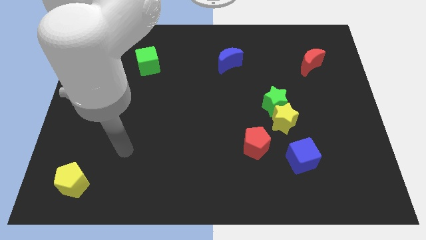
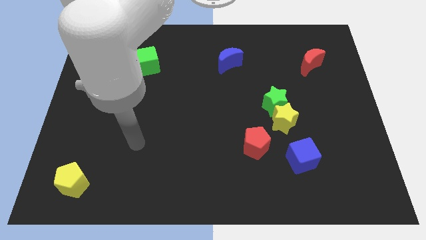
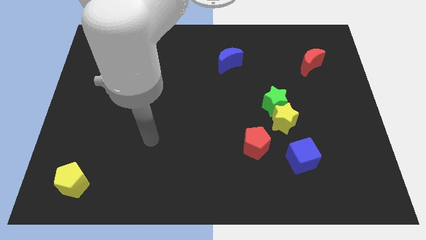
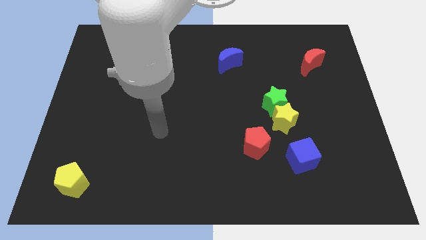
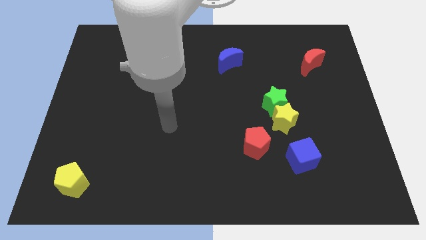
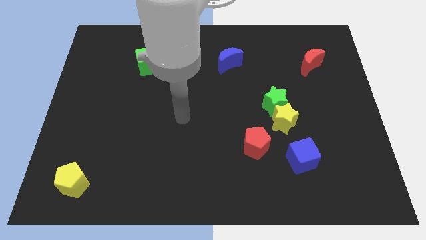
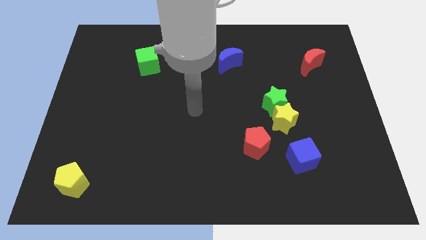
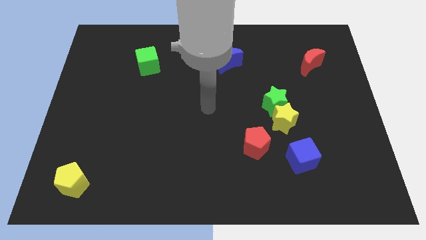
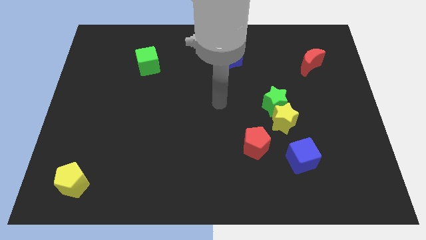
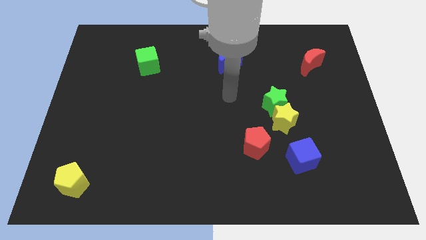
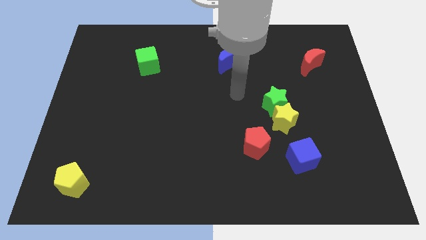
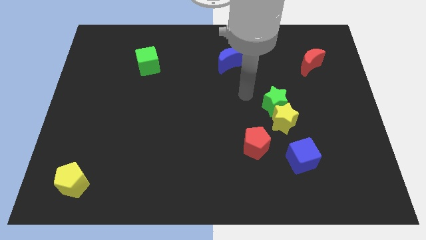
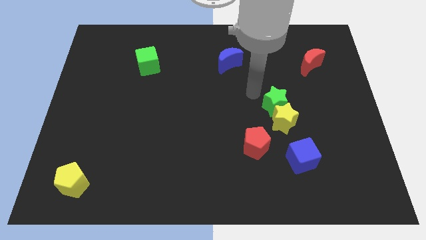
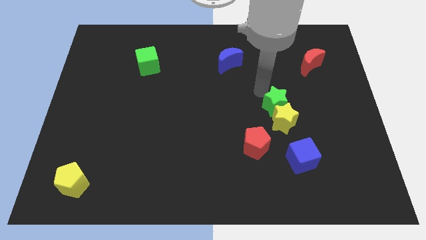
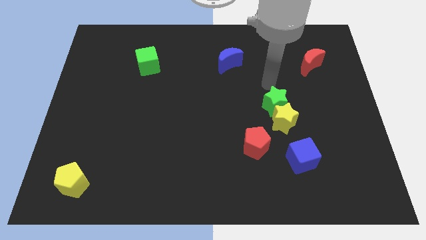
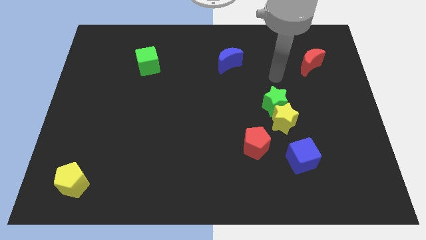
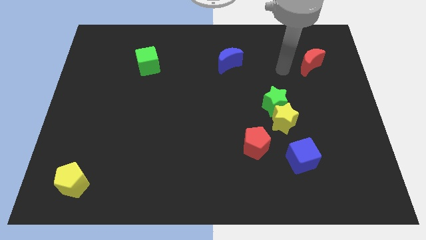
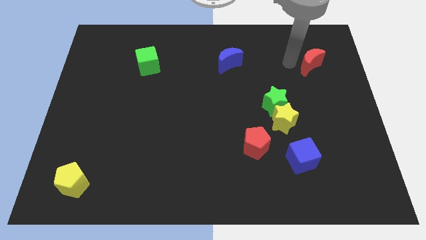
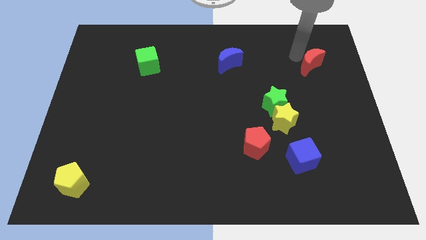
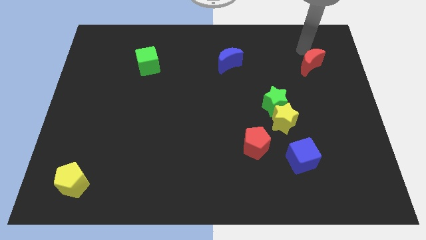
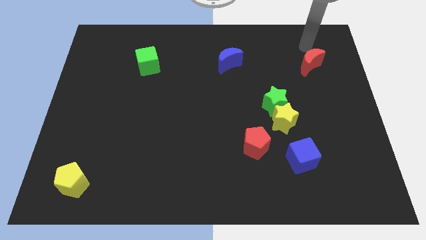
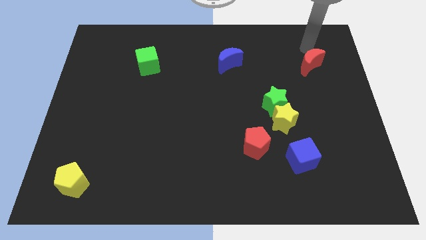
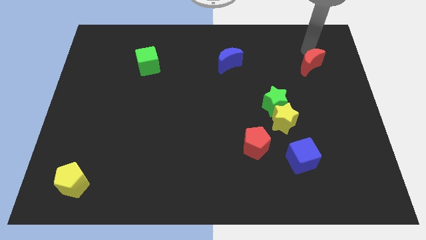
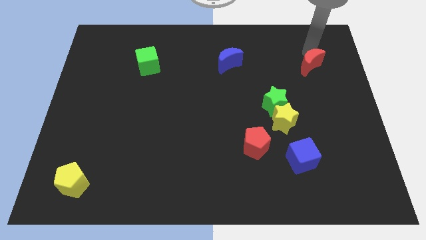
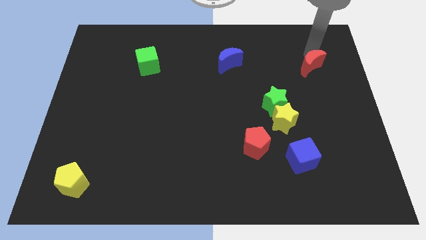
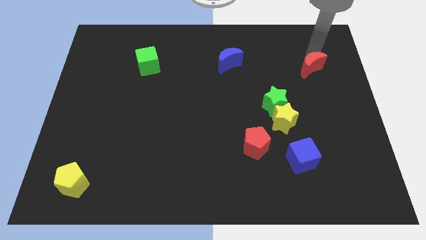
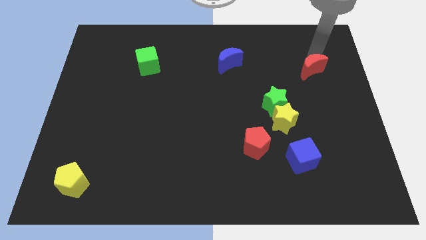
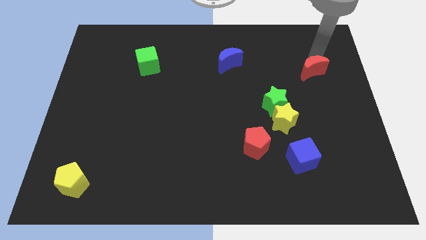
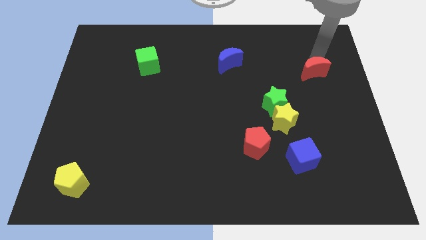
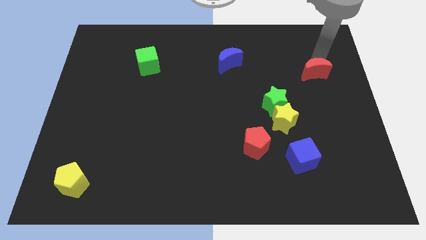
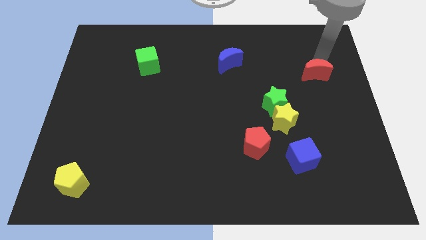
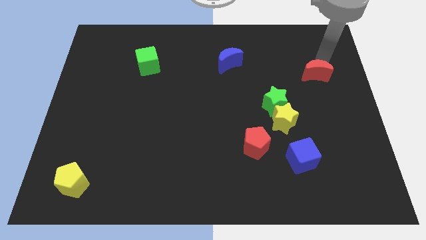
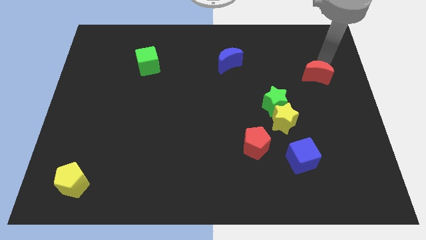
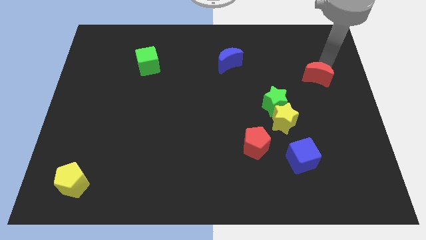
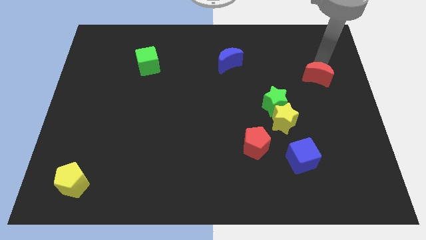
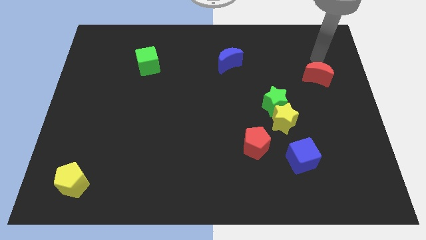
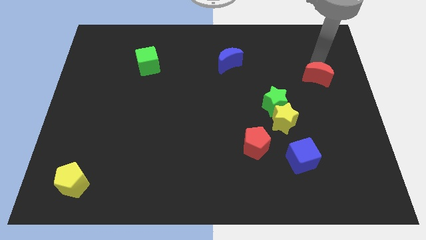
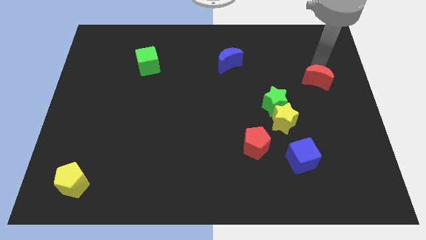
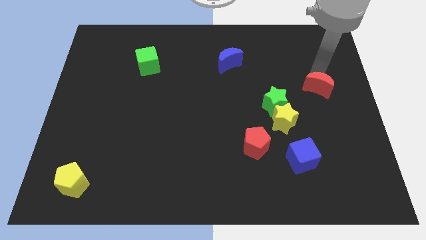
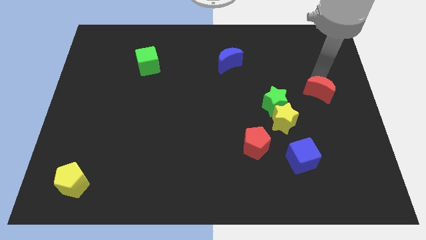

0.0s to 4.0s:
push the red moon to the right of the green star

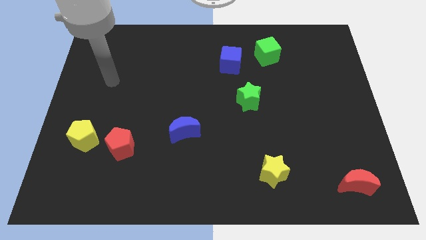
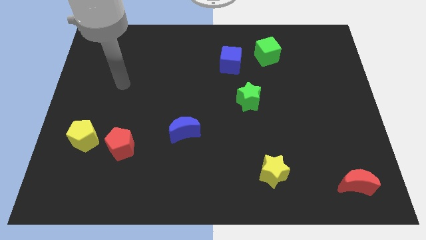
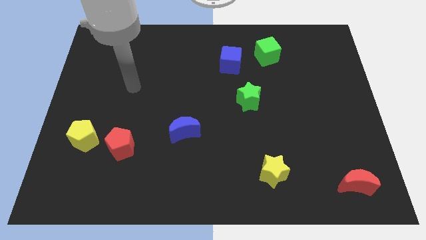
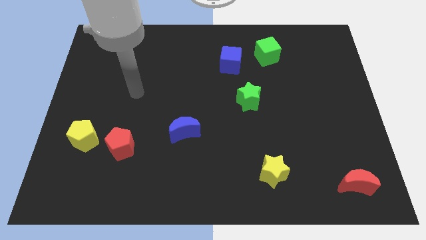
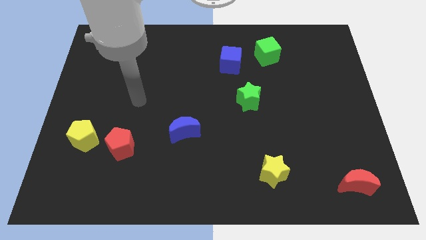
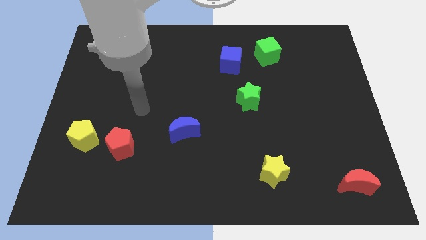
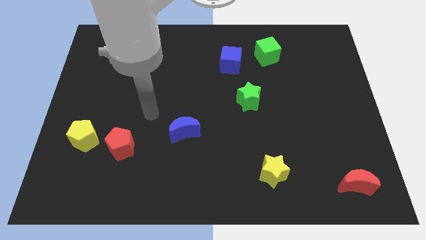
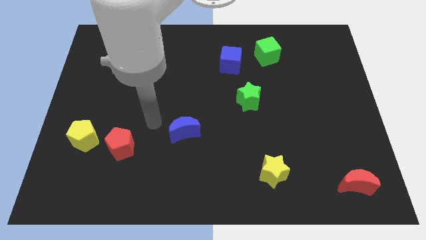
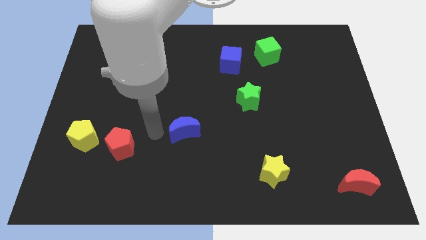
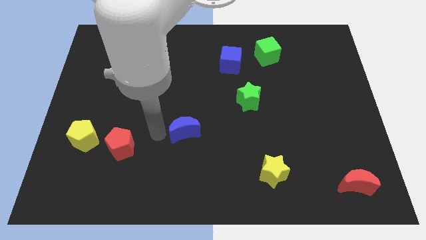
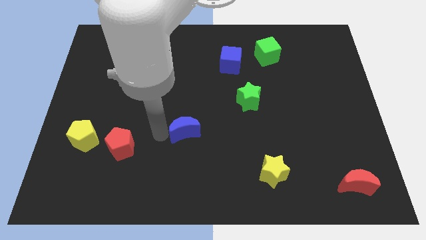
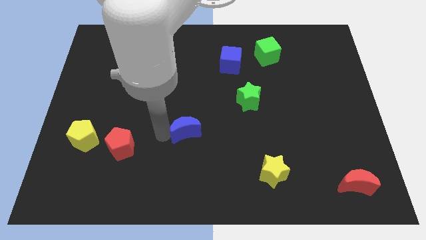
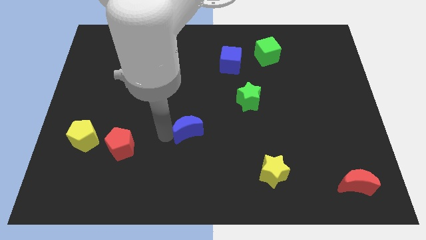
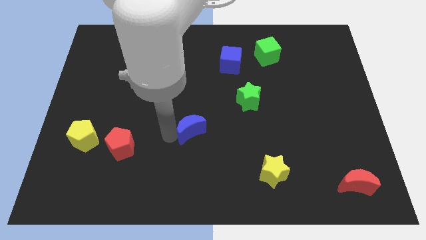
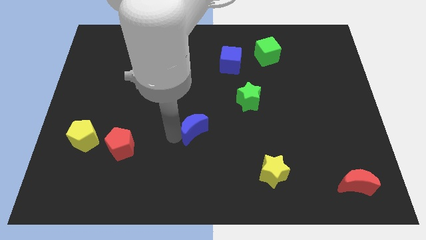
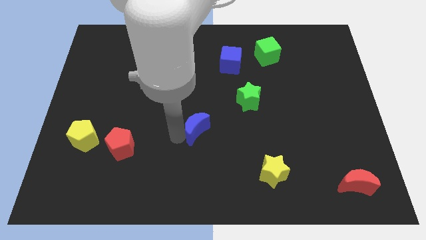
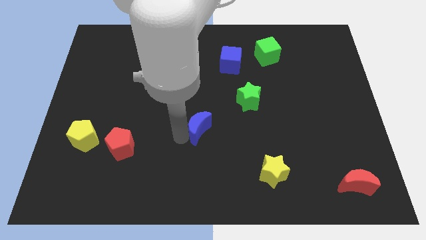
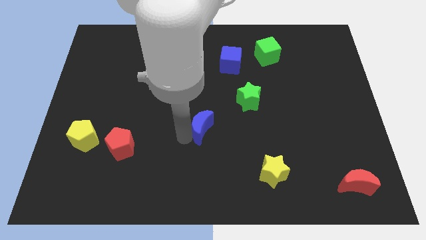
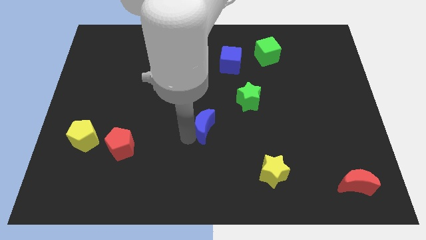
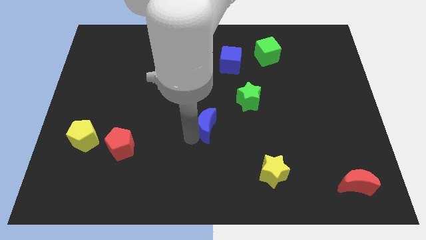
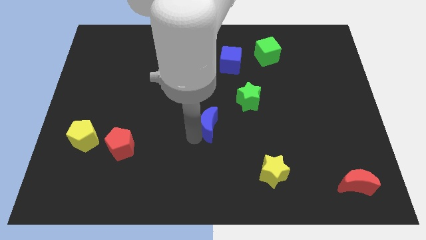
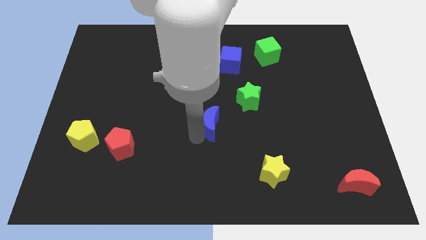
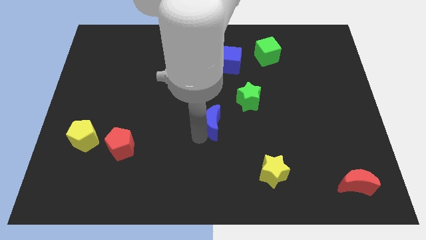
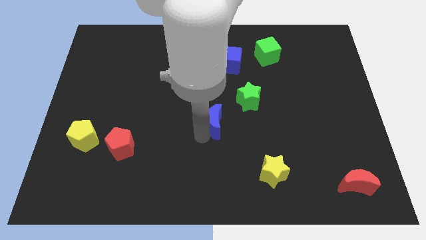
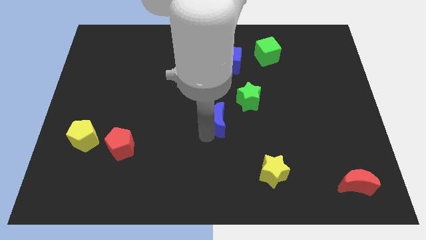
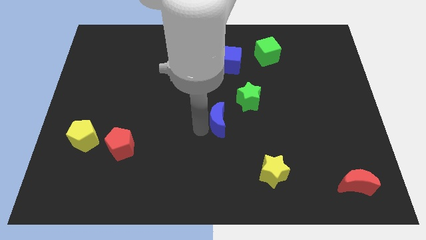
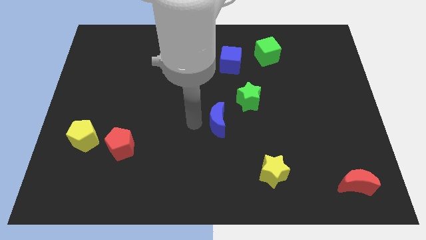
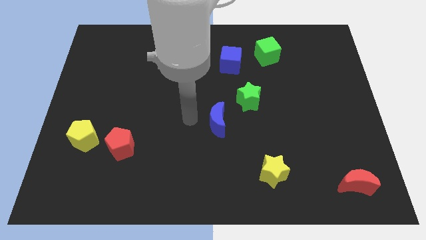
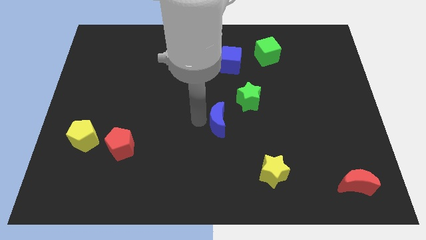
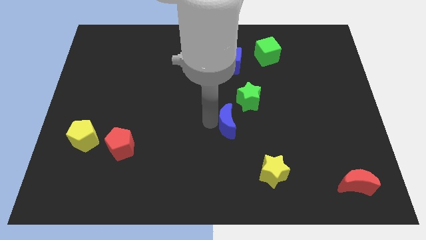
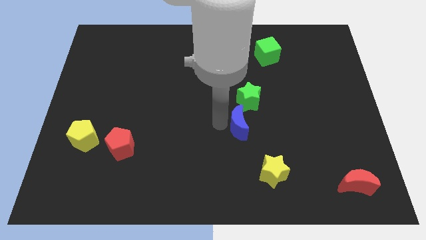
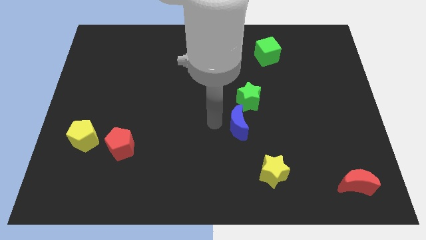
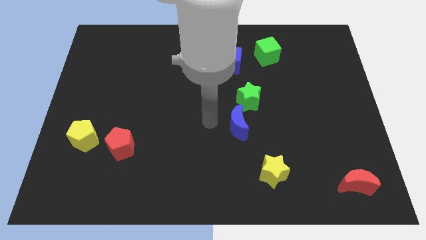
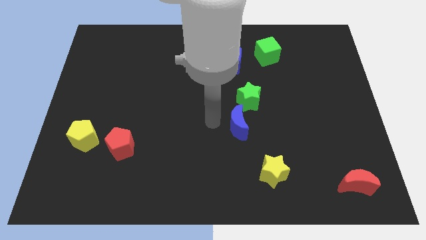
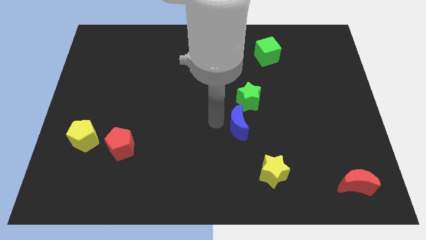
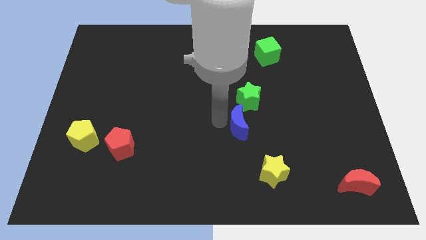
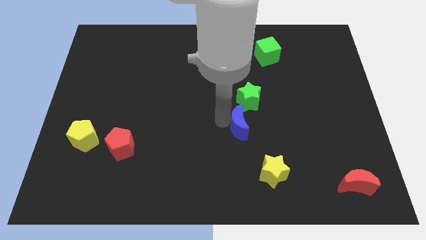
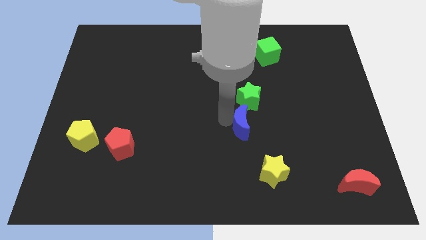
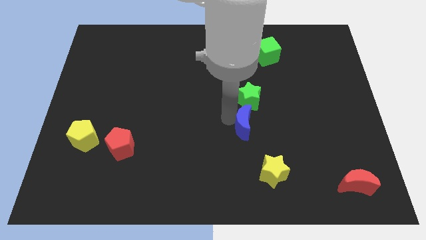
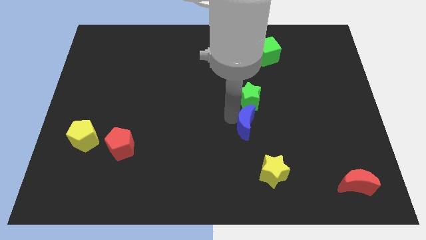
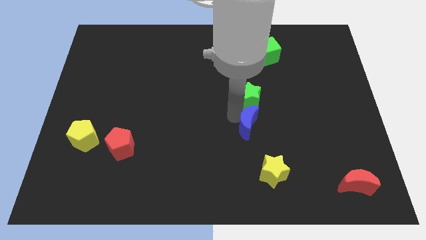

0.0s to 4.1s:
put the blue moon to the top of the yellow star
